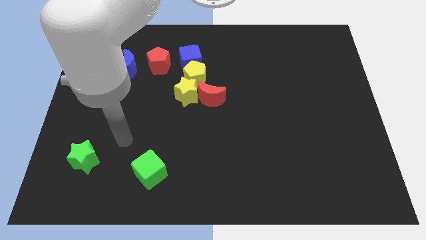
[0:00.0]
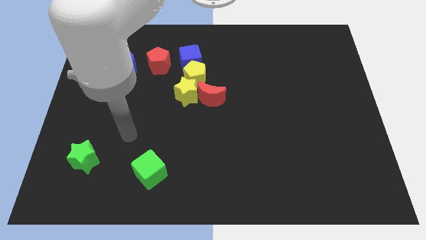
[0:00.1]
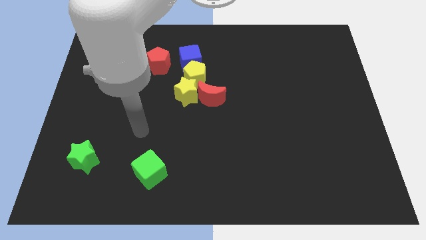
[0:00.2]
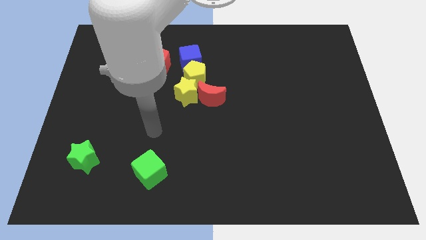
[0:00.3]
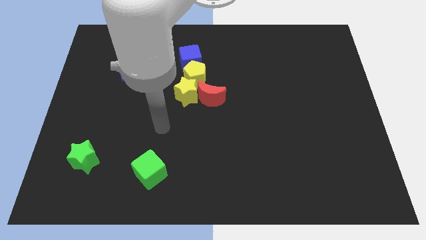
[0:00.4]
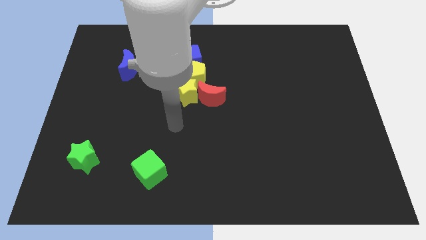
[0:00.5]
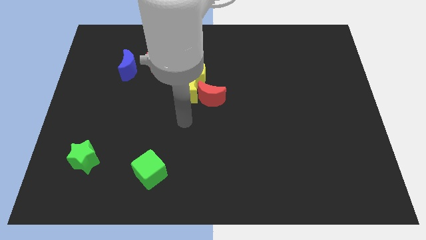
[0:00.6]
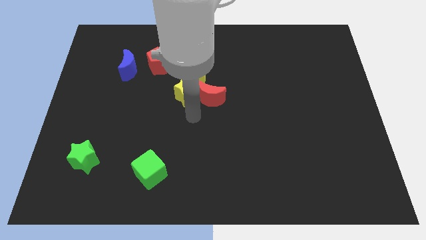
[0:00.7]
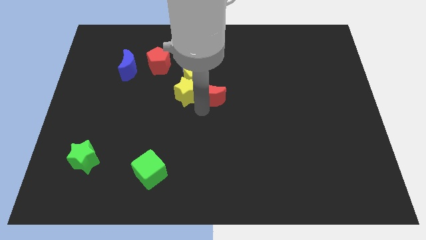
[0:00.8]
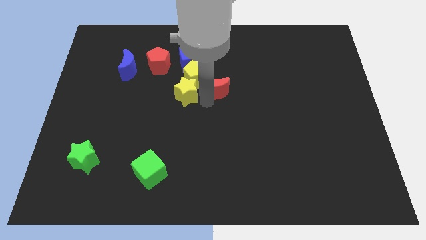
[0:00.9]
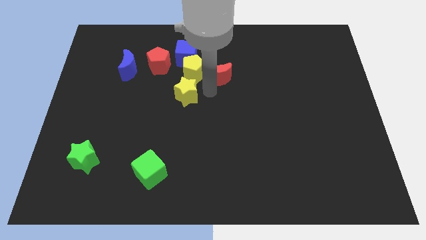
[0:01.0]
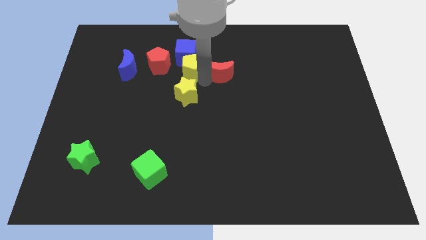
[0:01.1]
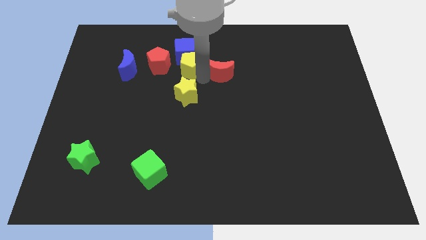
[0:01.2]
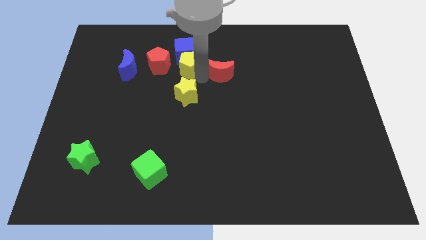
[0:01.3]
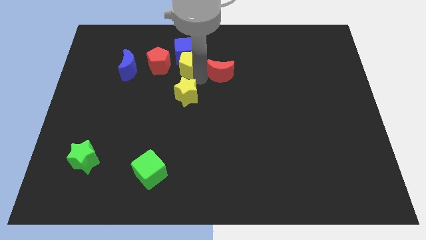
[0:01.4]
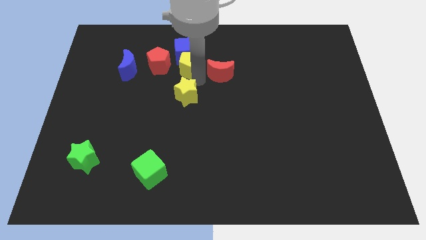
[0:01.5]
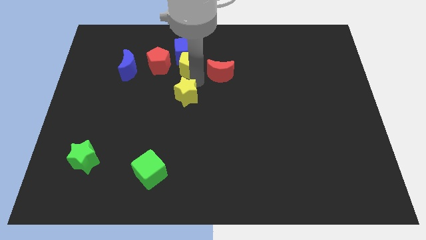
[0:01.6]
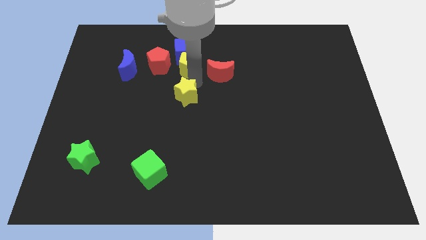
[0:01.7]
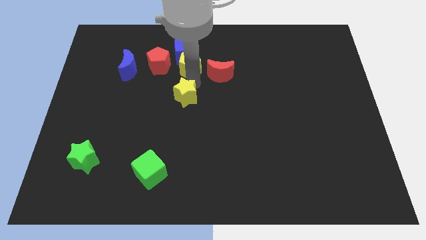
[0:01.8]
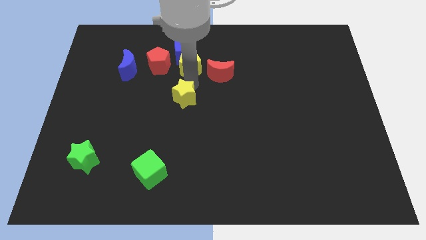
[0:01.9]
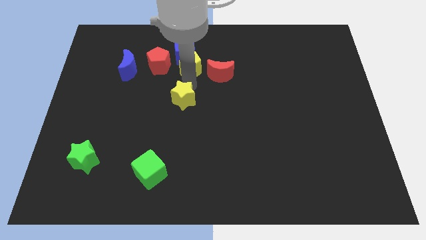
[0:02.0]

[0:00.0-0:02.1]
separate the yellow star from the yellow pentagon and red moon

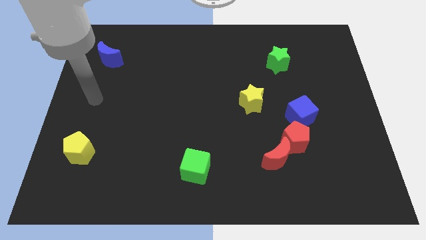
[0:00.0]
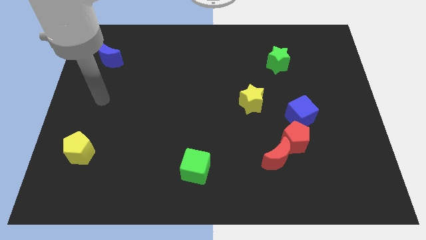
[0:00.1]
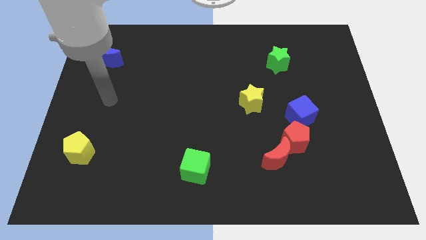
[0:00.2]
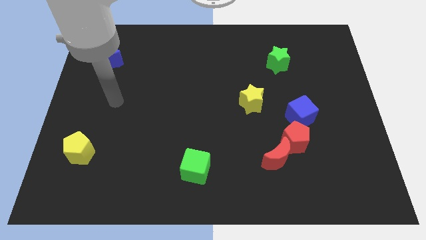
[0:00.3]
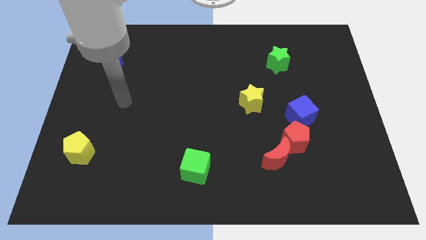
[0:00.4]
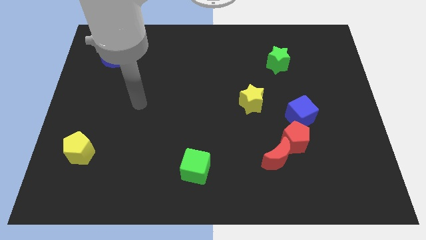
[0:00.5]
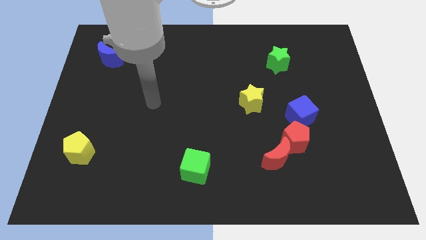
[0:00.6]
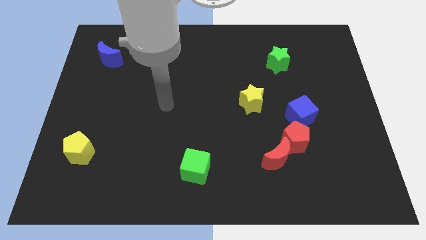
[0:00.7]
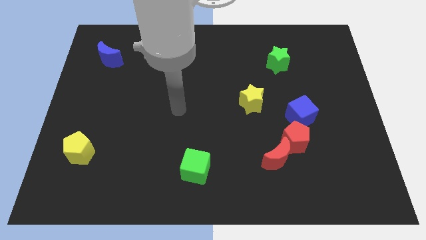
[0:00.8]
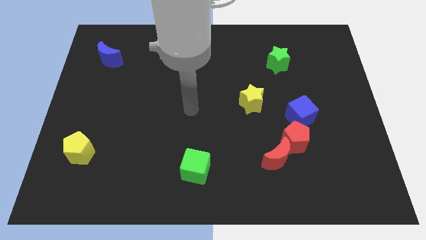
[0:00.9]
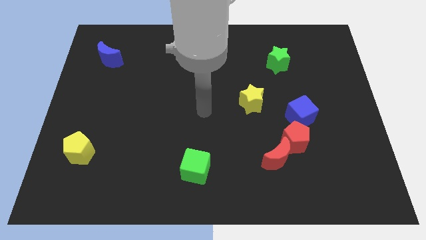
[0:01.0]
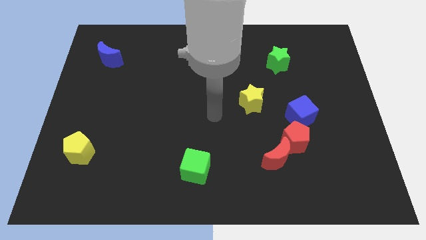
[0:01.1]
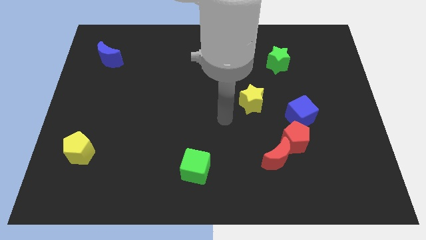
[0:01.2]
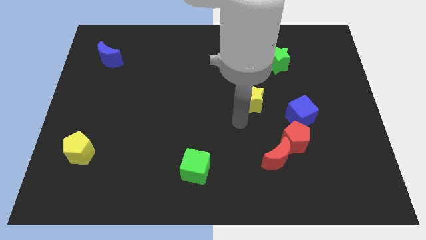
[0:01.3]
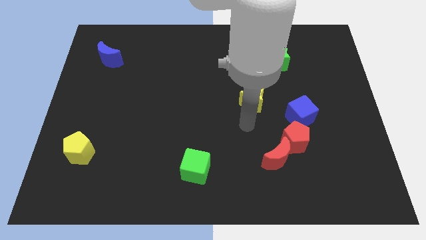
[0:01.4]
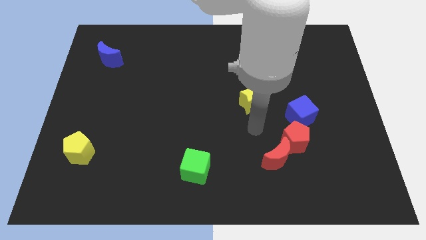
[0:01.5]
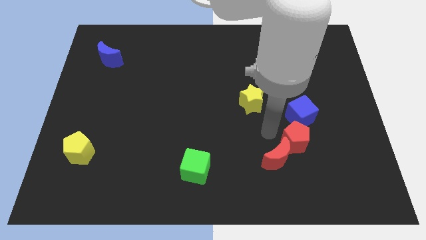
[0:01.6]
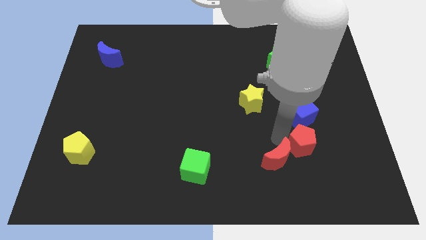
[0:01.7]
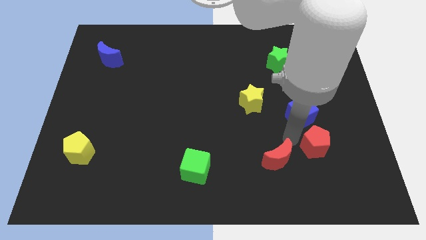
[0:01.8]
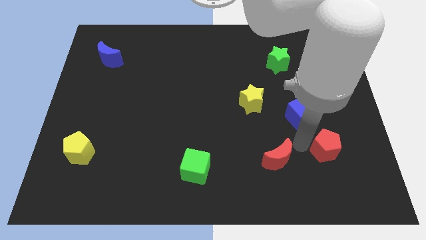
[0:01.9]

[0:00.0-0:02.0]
move the red moon away from the red pentagon
